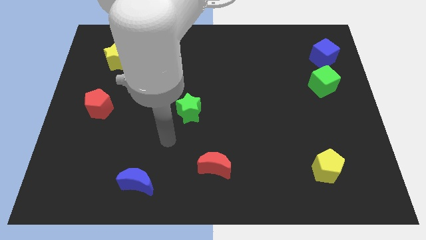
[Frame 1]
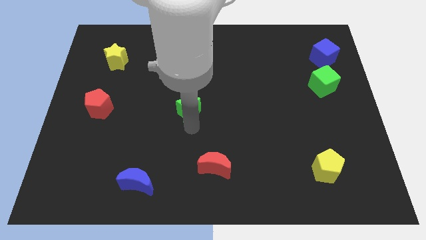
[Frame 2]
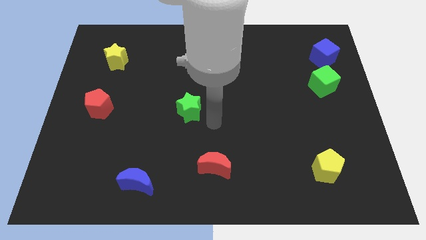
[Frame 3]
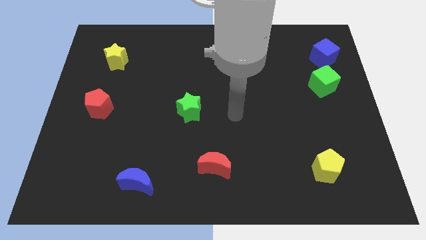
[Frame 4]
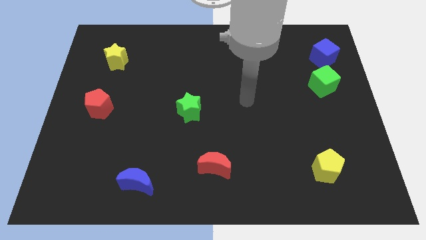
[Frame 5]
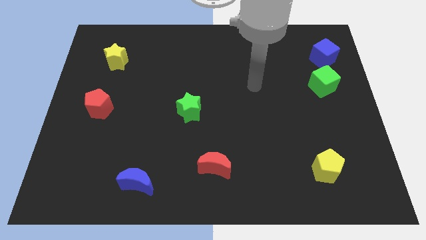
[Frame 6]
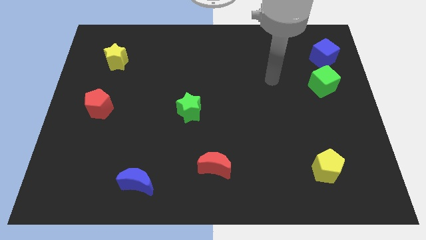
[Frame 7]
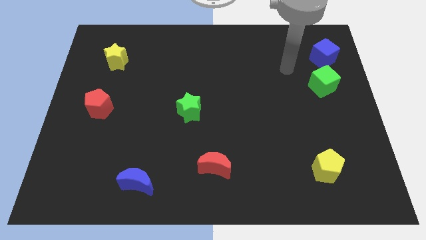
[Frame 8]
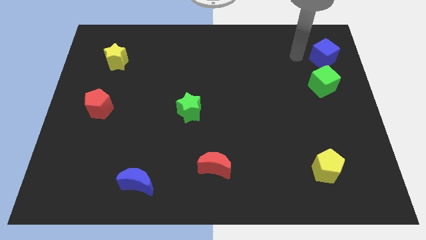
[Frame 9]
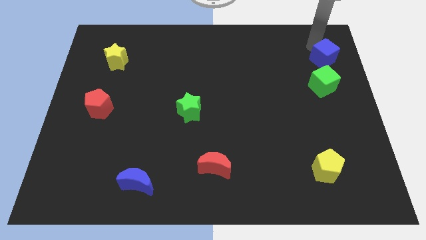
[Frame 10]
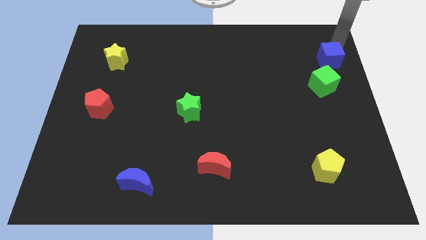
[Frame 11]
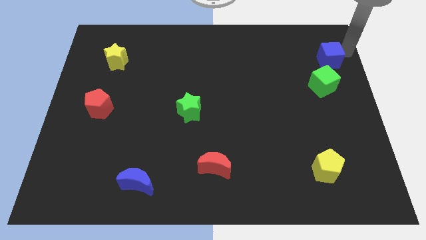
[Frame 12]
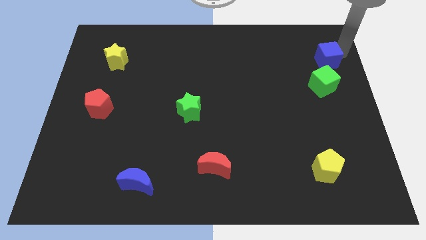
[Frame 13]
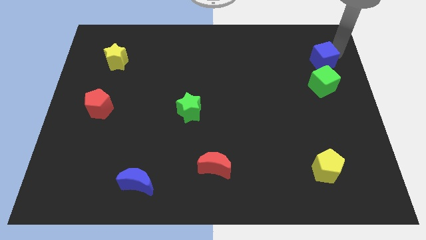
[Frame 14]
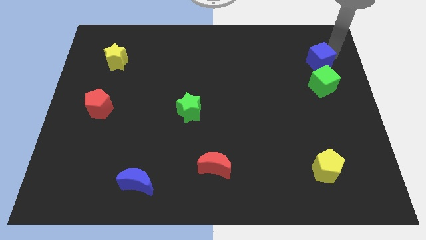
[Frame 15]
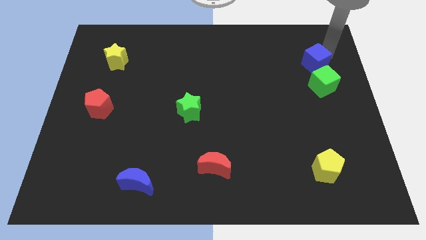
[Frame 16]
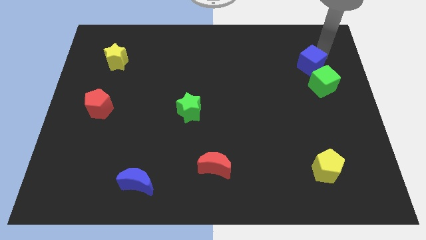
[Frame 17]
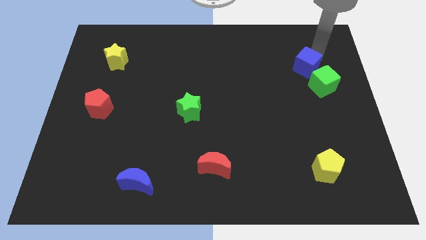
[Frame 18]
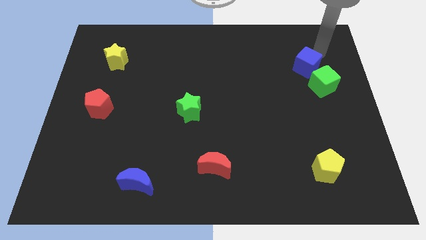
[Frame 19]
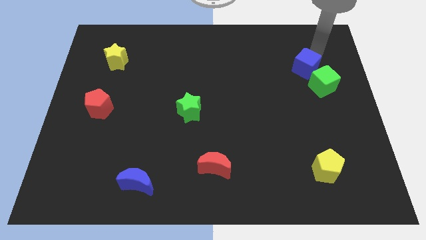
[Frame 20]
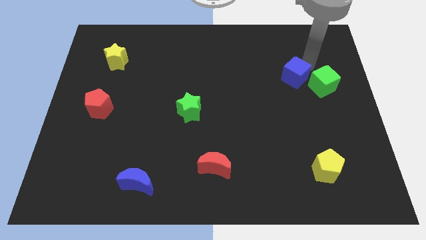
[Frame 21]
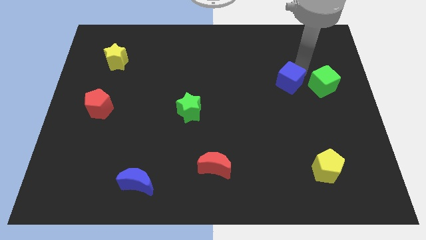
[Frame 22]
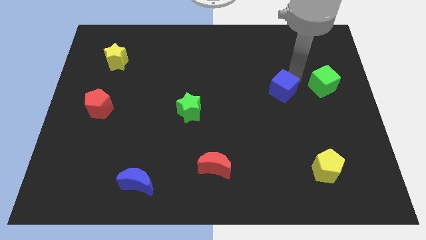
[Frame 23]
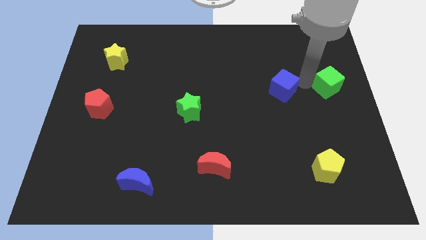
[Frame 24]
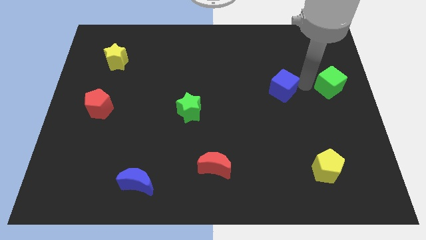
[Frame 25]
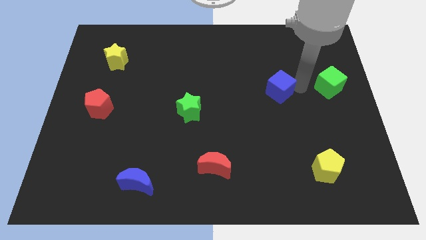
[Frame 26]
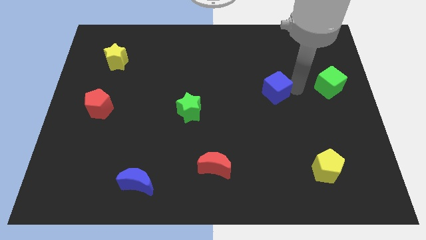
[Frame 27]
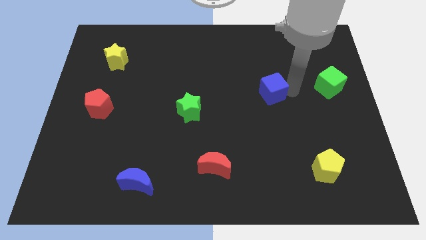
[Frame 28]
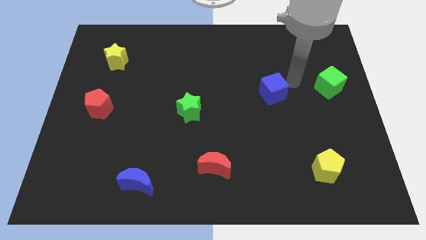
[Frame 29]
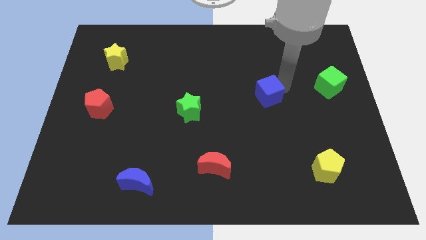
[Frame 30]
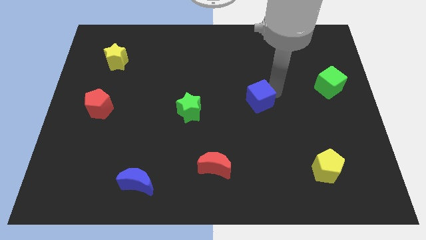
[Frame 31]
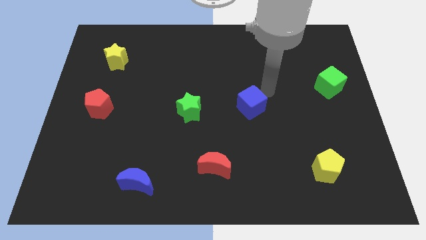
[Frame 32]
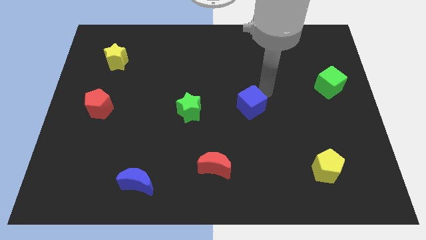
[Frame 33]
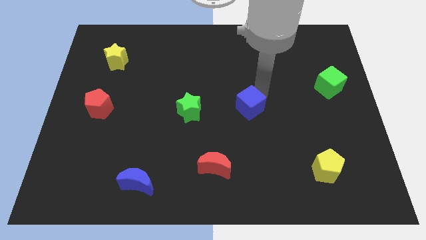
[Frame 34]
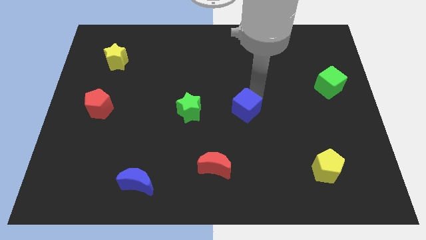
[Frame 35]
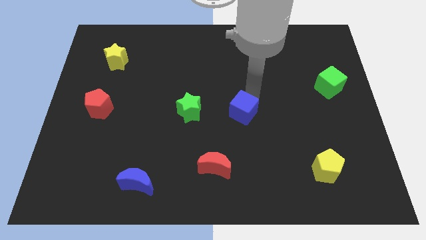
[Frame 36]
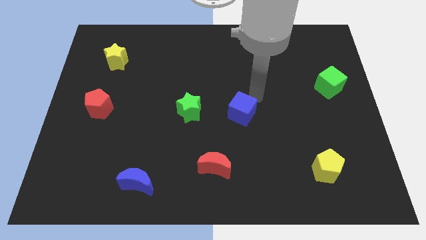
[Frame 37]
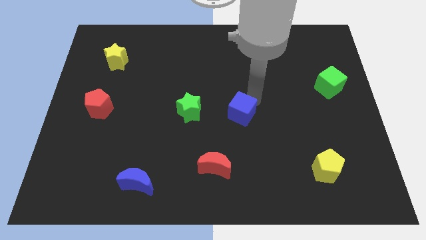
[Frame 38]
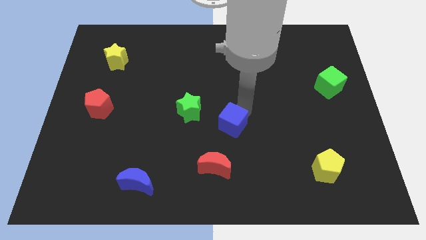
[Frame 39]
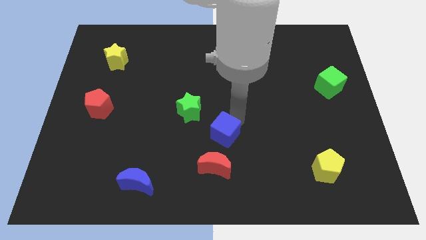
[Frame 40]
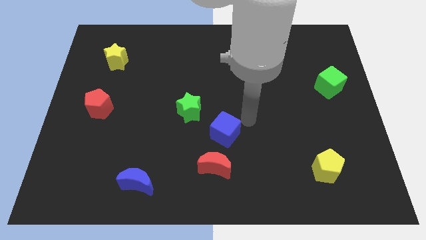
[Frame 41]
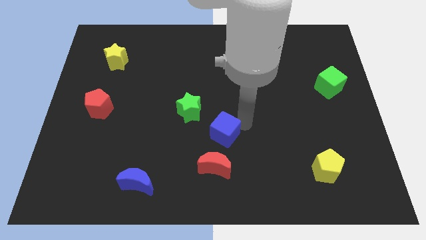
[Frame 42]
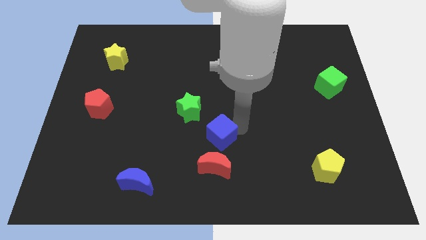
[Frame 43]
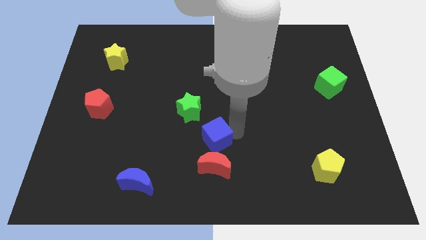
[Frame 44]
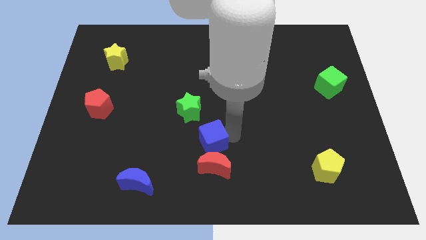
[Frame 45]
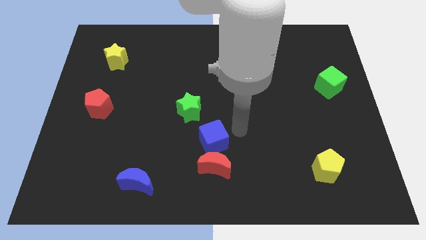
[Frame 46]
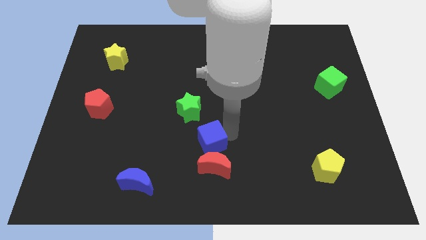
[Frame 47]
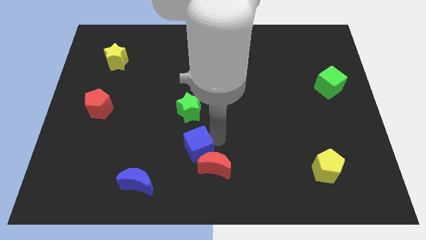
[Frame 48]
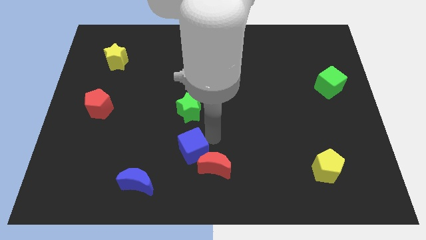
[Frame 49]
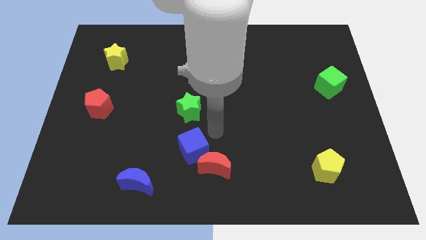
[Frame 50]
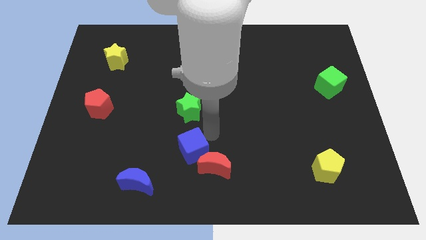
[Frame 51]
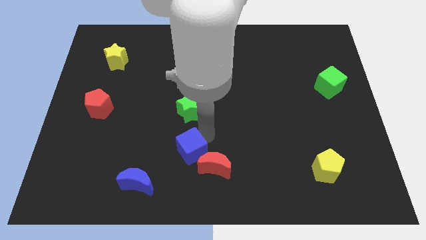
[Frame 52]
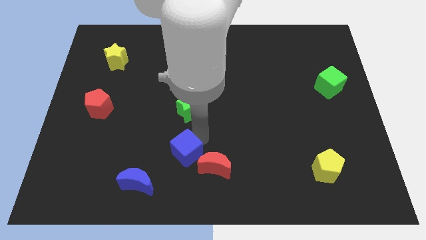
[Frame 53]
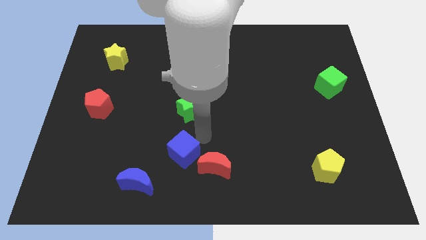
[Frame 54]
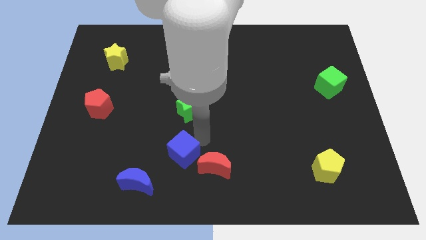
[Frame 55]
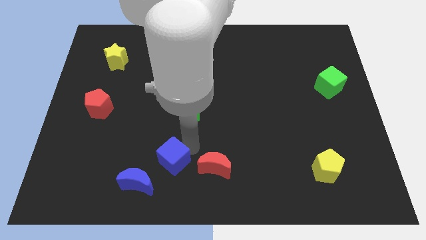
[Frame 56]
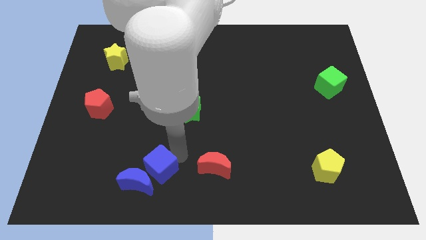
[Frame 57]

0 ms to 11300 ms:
slide the blue cube next to the blue moon

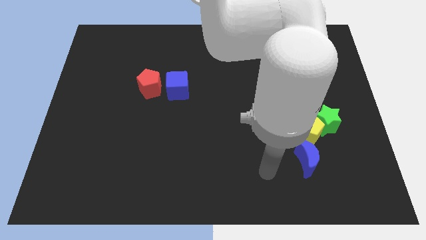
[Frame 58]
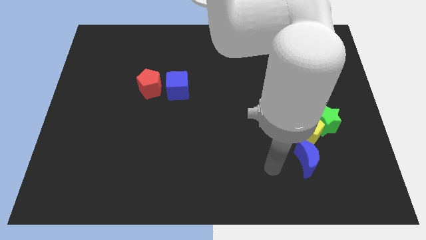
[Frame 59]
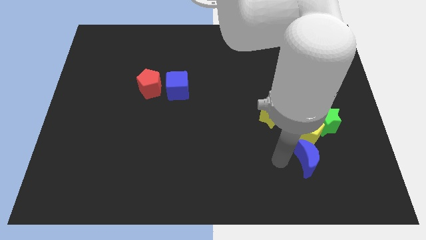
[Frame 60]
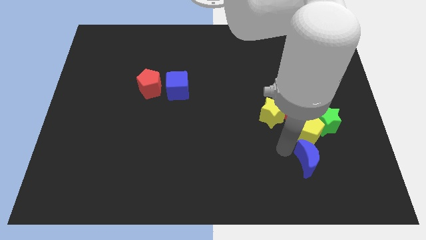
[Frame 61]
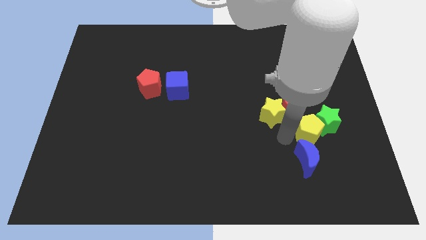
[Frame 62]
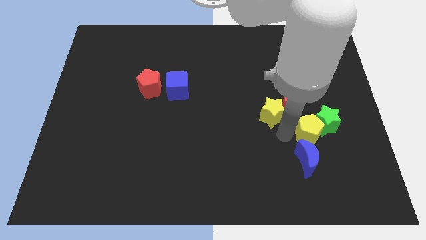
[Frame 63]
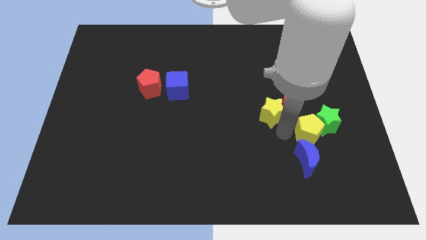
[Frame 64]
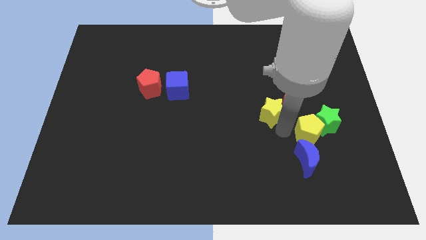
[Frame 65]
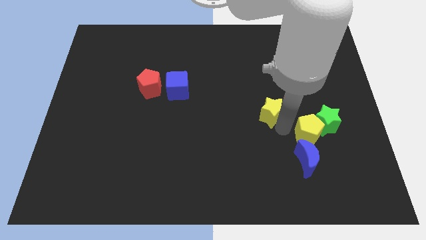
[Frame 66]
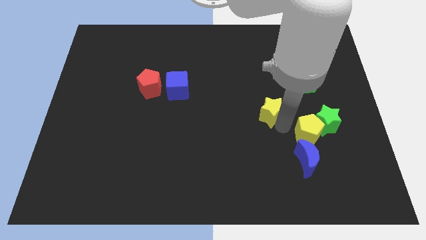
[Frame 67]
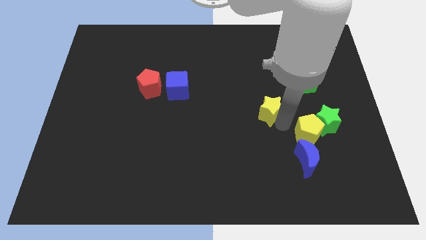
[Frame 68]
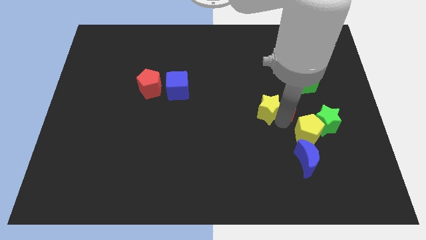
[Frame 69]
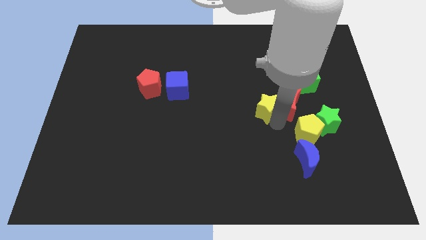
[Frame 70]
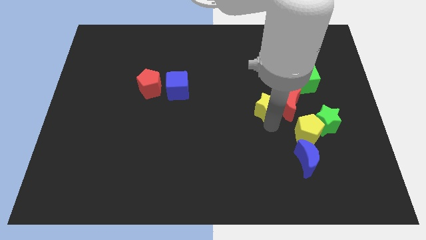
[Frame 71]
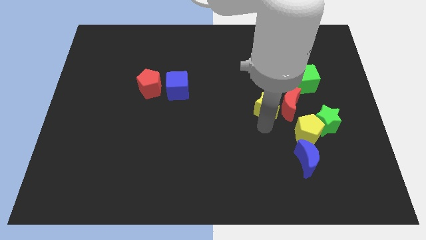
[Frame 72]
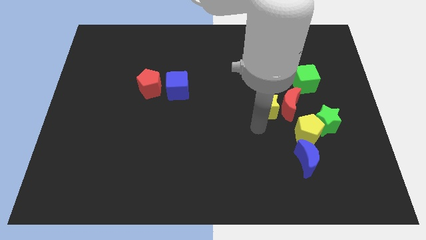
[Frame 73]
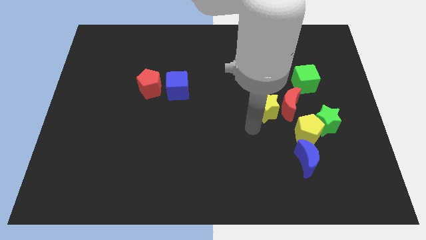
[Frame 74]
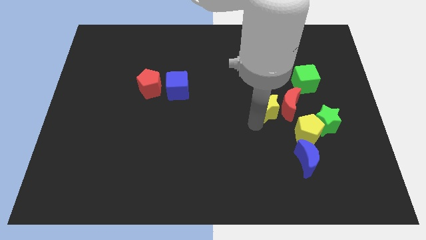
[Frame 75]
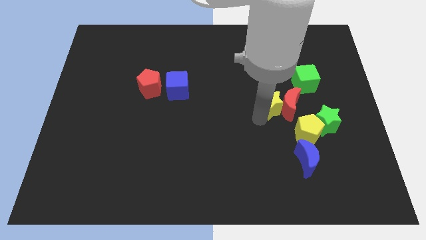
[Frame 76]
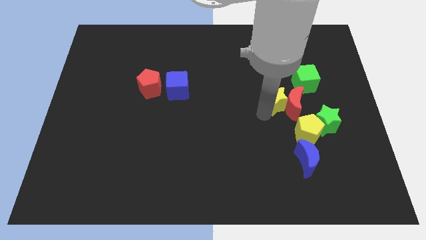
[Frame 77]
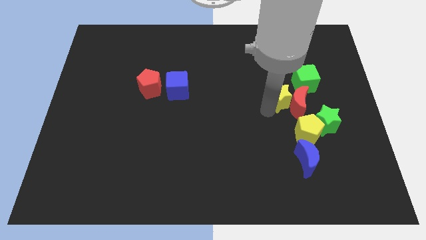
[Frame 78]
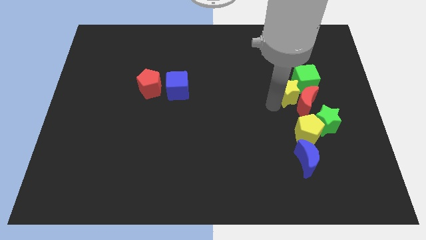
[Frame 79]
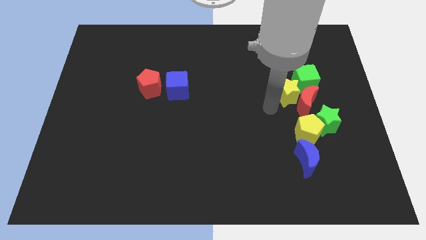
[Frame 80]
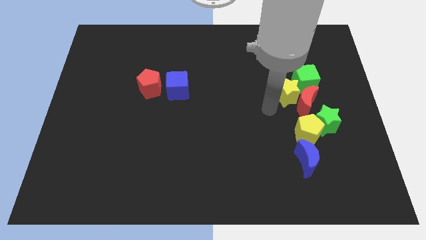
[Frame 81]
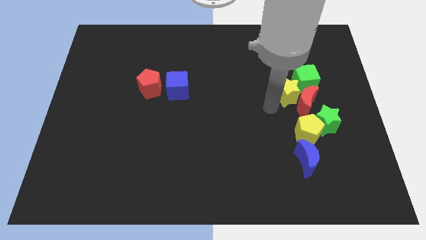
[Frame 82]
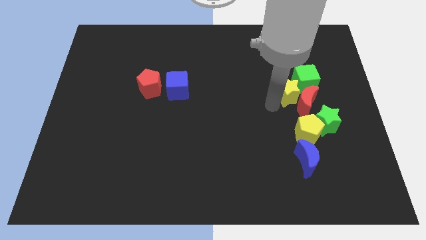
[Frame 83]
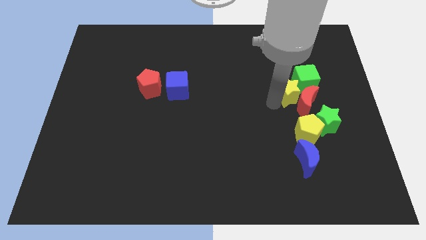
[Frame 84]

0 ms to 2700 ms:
move the yellow star towards the green cube
